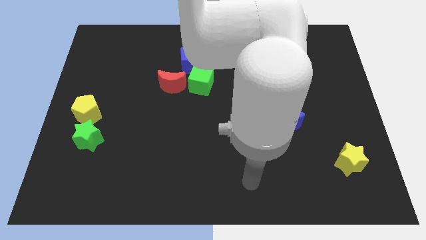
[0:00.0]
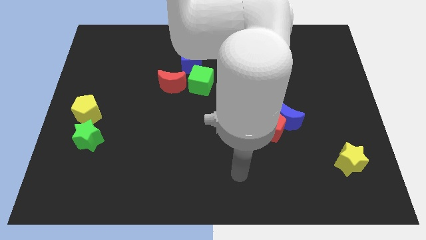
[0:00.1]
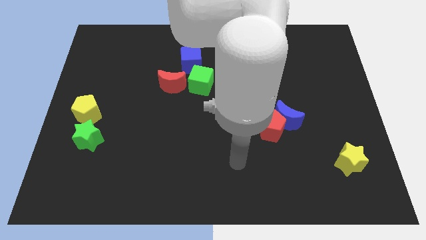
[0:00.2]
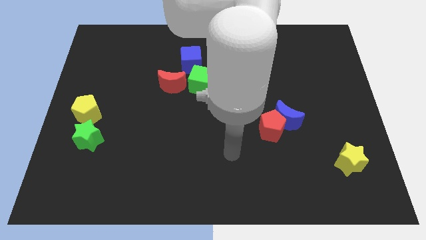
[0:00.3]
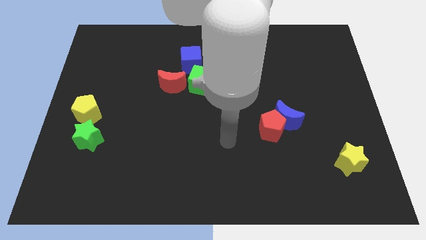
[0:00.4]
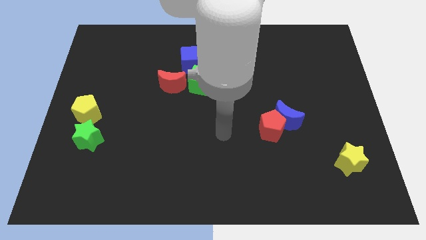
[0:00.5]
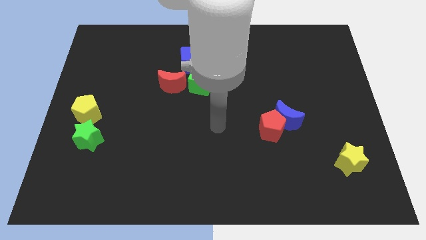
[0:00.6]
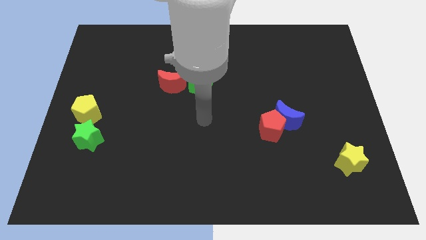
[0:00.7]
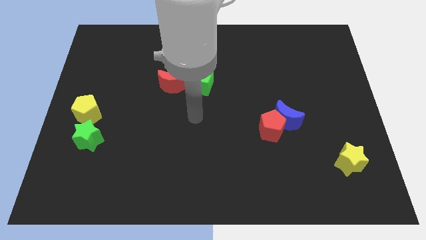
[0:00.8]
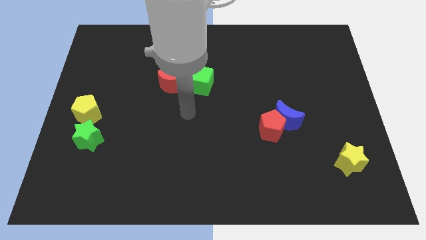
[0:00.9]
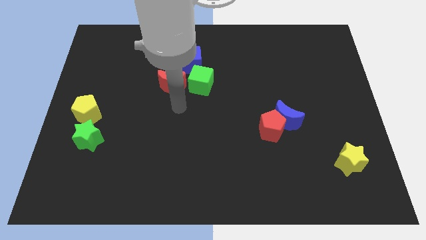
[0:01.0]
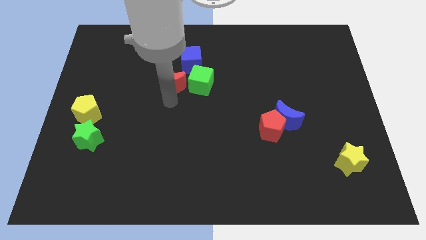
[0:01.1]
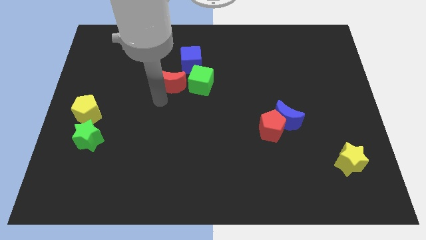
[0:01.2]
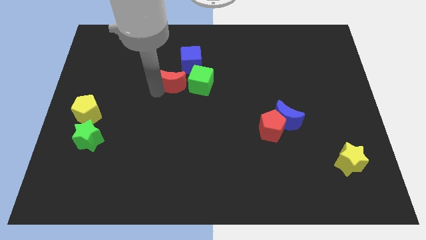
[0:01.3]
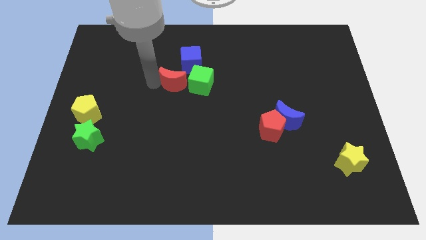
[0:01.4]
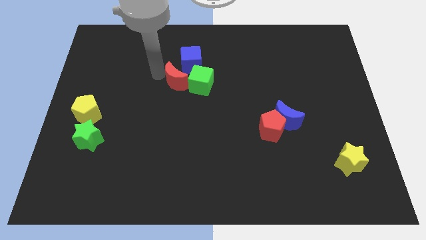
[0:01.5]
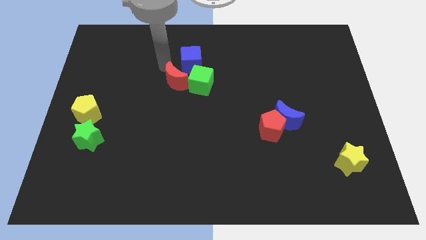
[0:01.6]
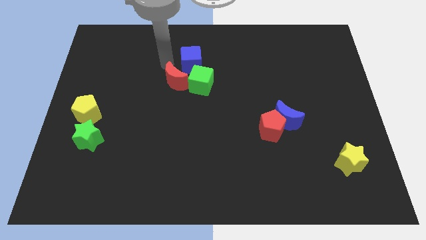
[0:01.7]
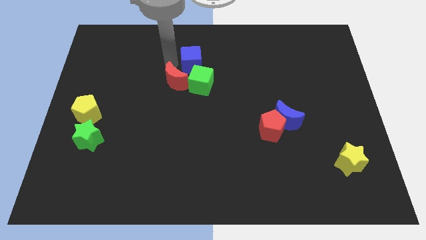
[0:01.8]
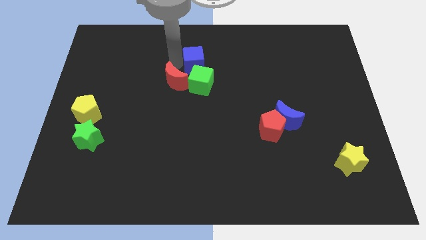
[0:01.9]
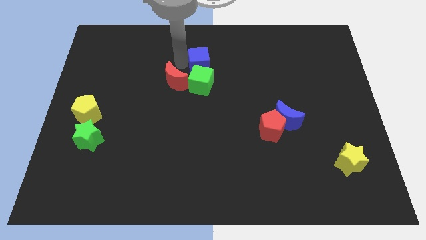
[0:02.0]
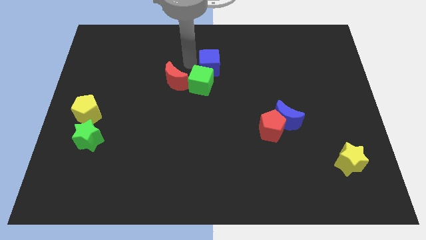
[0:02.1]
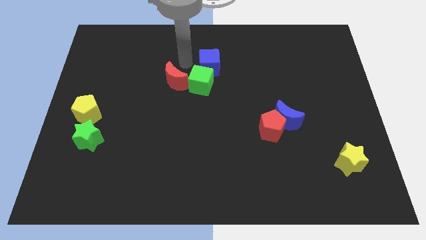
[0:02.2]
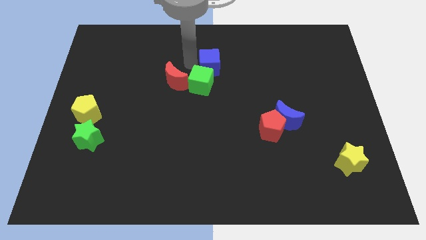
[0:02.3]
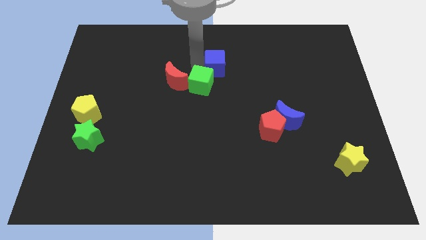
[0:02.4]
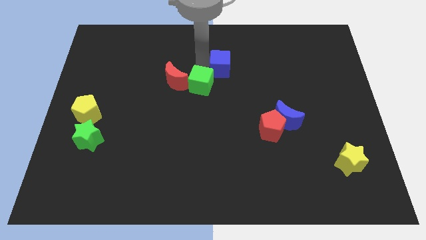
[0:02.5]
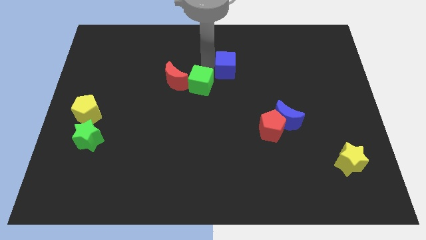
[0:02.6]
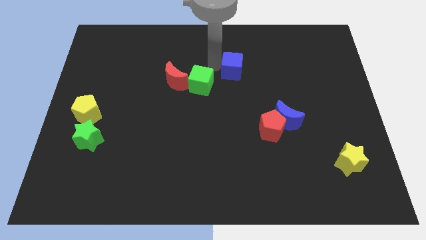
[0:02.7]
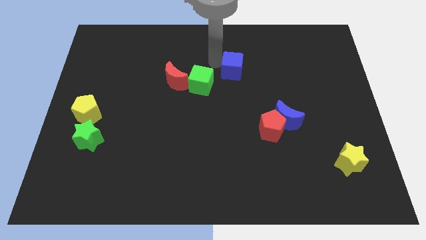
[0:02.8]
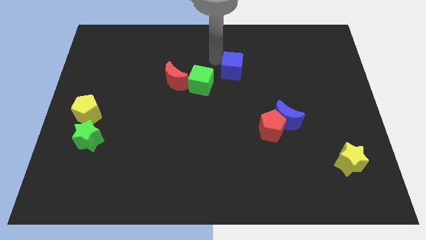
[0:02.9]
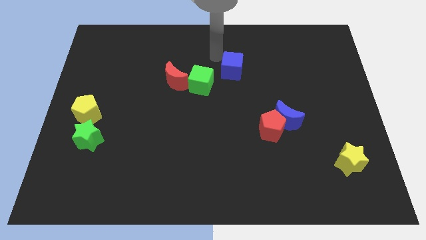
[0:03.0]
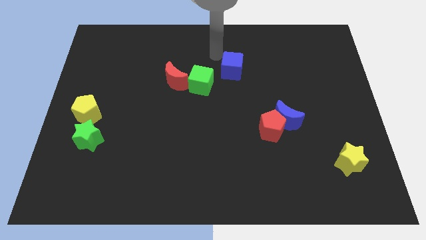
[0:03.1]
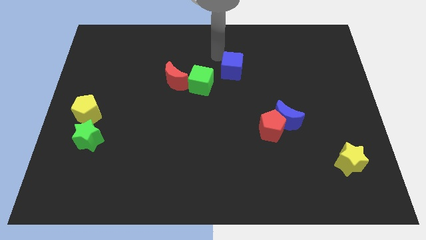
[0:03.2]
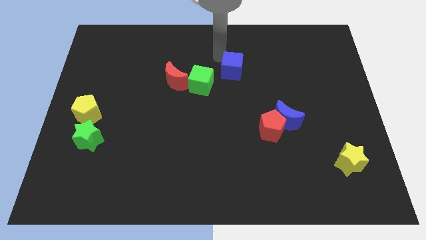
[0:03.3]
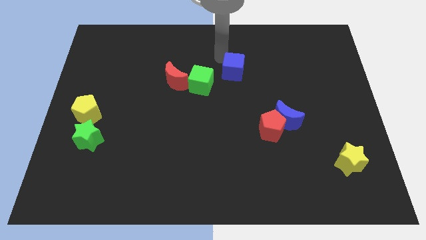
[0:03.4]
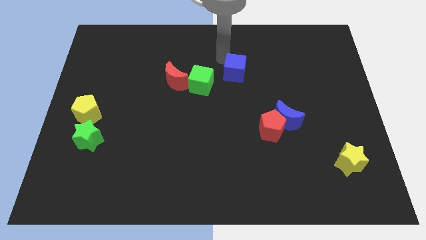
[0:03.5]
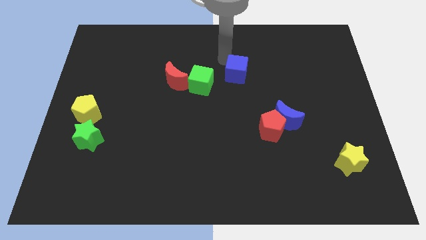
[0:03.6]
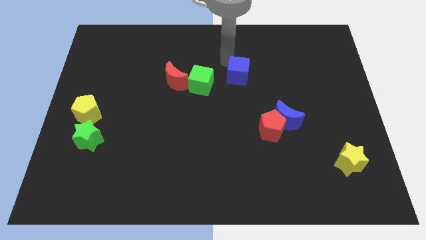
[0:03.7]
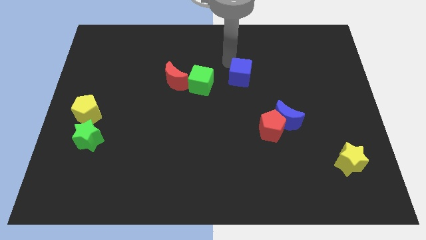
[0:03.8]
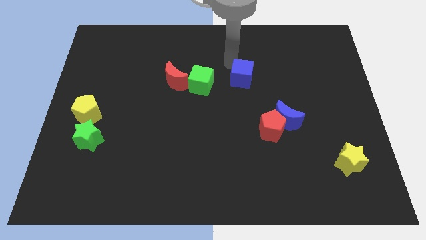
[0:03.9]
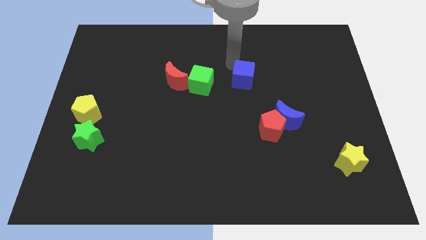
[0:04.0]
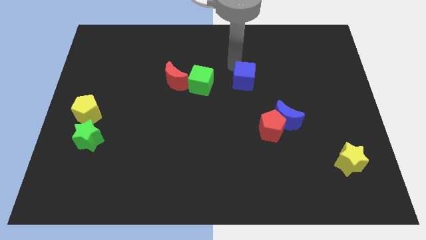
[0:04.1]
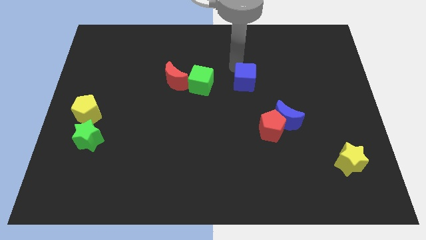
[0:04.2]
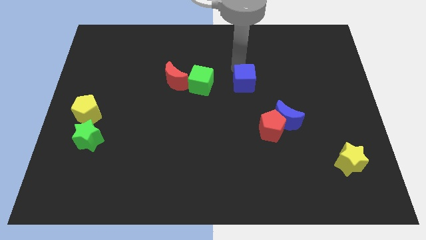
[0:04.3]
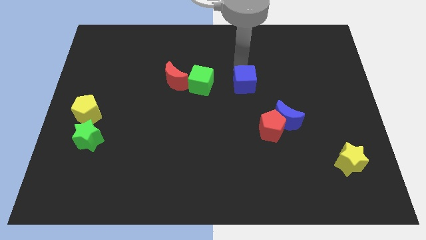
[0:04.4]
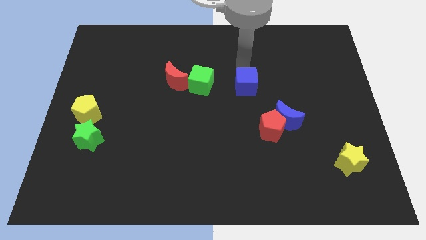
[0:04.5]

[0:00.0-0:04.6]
slide the blue cube to the top side of the red pentagon

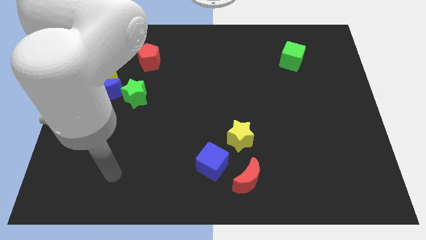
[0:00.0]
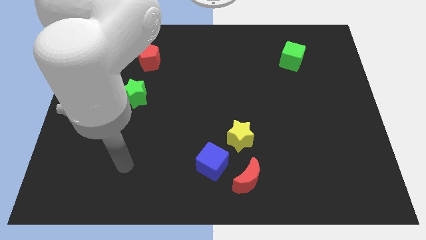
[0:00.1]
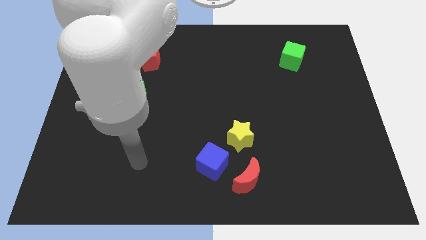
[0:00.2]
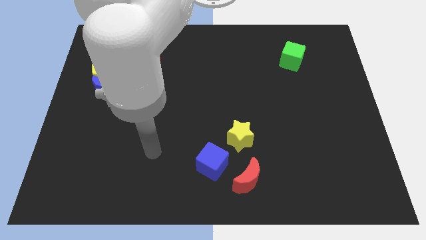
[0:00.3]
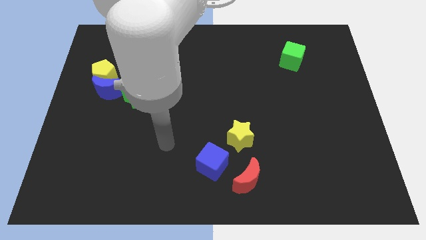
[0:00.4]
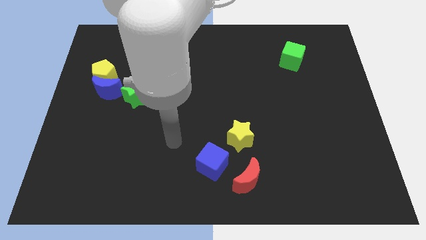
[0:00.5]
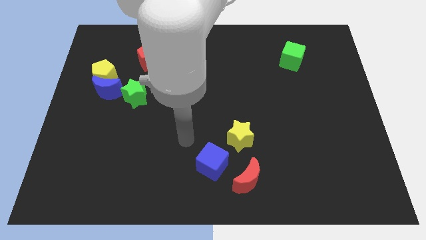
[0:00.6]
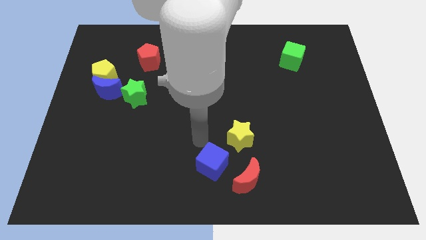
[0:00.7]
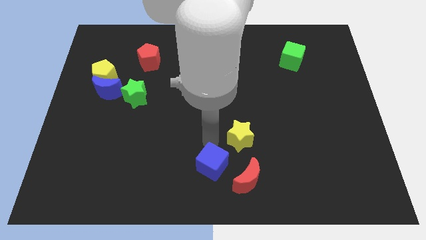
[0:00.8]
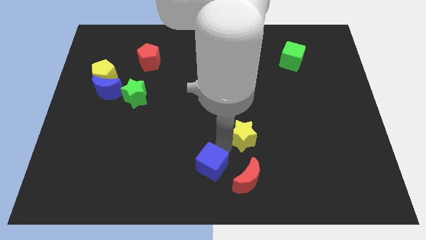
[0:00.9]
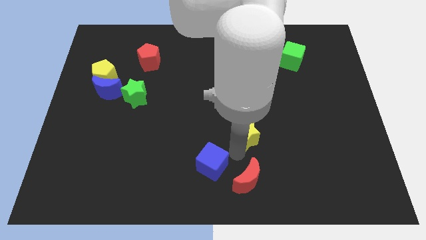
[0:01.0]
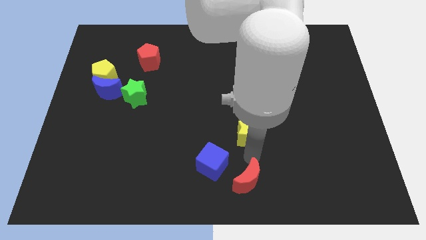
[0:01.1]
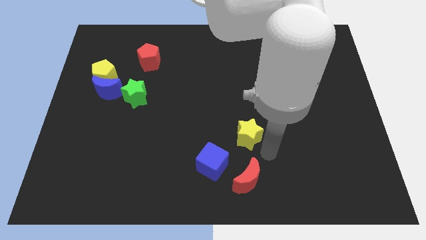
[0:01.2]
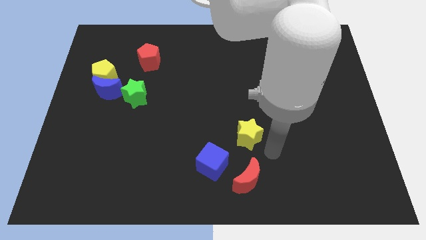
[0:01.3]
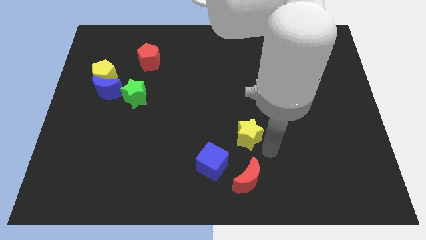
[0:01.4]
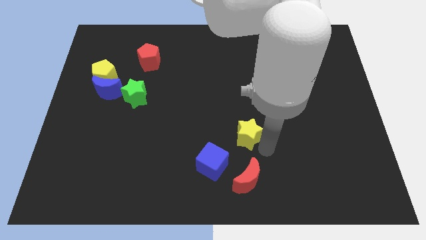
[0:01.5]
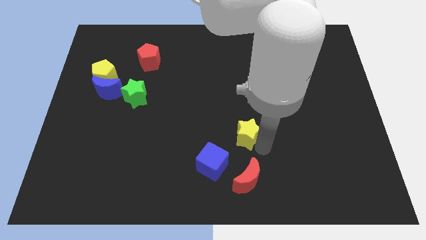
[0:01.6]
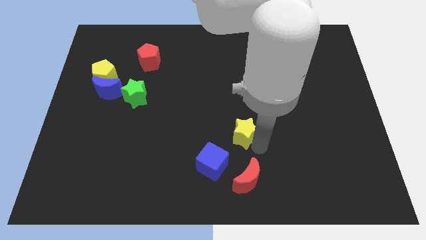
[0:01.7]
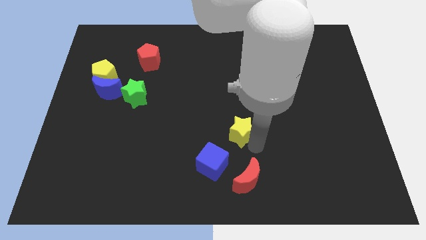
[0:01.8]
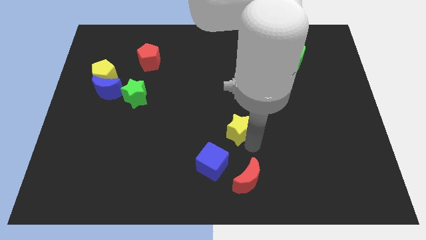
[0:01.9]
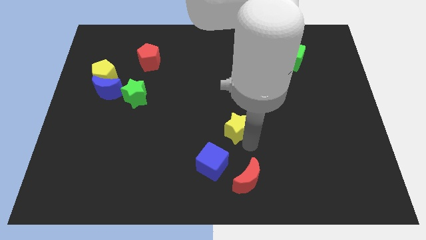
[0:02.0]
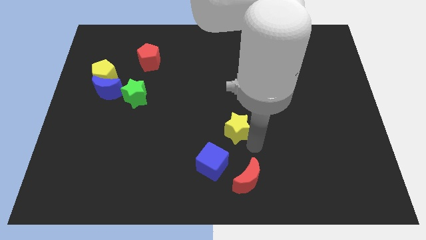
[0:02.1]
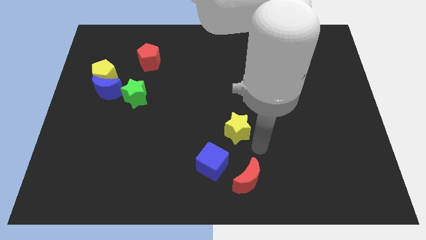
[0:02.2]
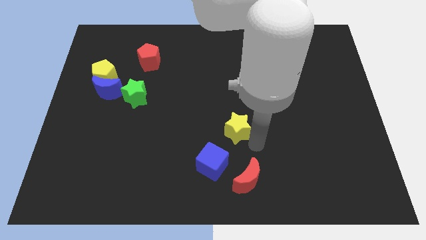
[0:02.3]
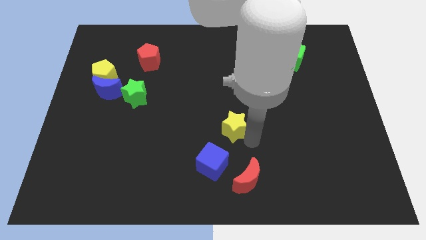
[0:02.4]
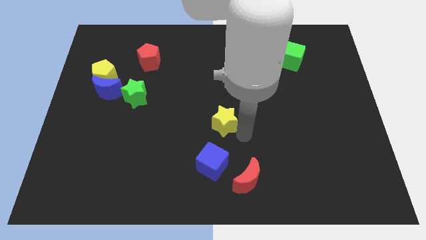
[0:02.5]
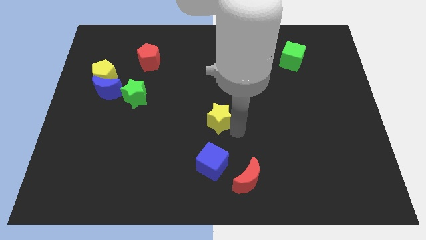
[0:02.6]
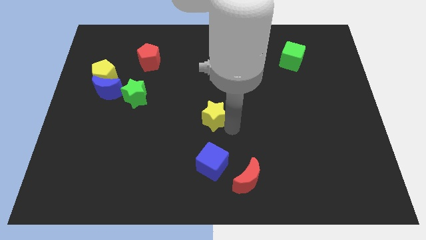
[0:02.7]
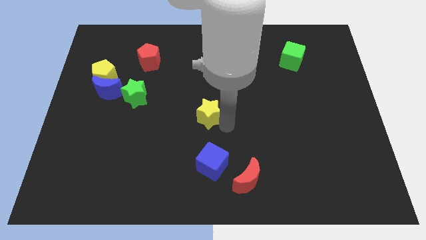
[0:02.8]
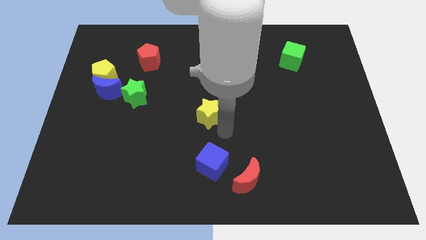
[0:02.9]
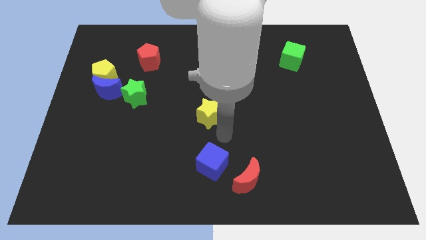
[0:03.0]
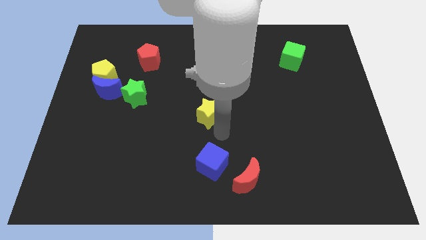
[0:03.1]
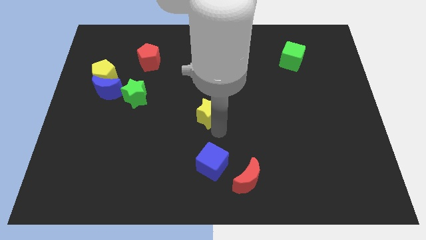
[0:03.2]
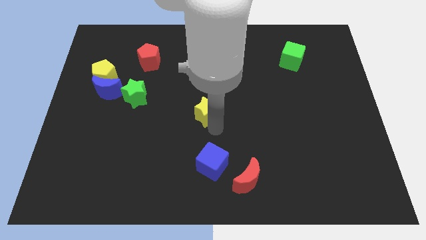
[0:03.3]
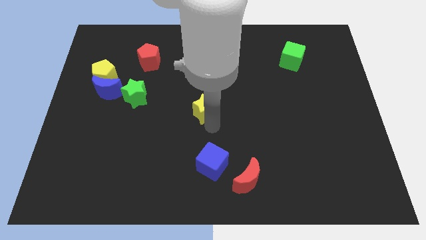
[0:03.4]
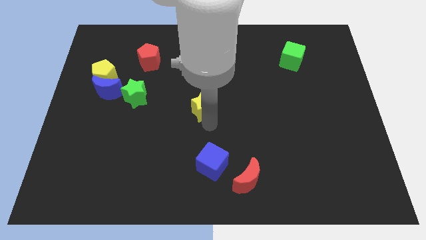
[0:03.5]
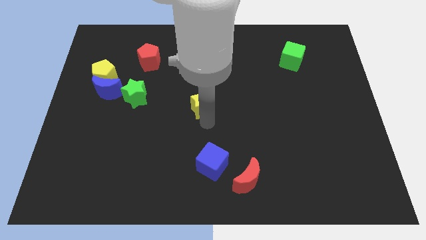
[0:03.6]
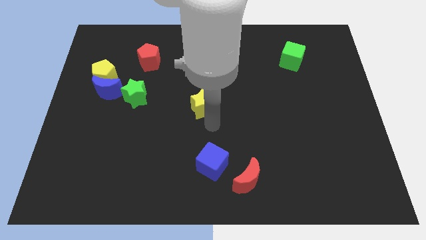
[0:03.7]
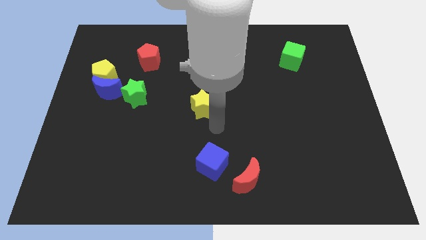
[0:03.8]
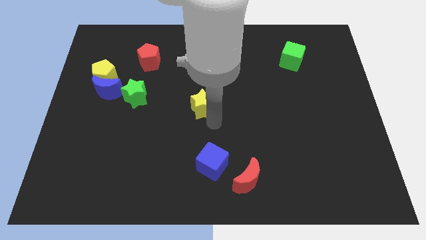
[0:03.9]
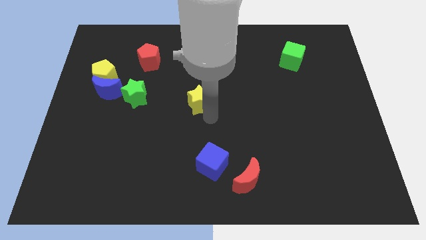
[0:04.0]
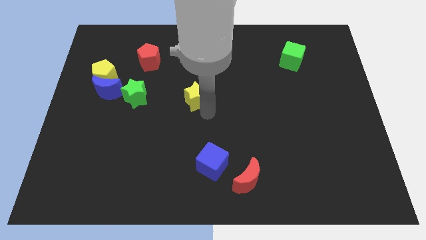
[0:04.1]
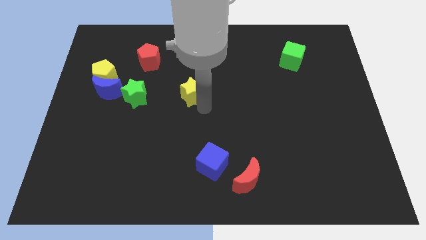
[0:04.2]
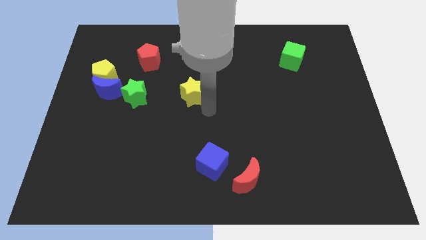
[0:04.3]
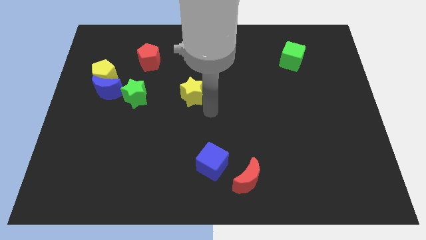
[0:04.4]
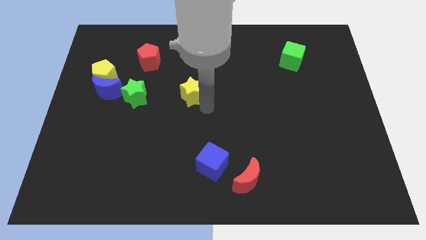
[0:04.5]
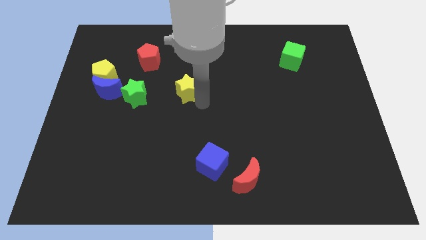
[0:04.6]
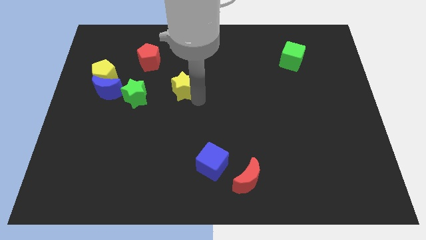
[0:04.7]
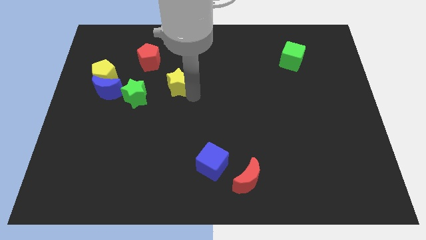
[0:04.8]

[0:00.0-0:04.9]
push the yellow star to the bottom right of the red pentagon
